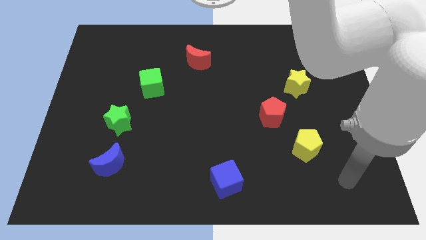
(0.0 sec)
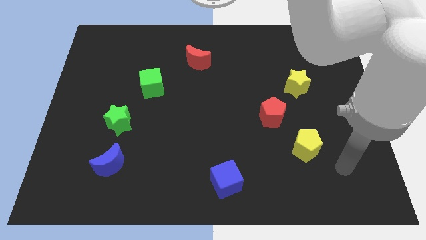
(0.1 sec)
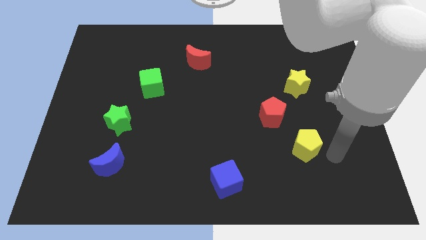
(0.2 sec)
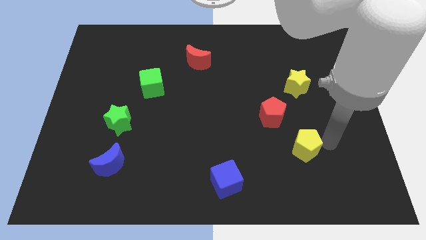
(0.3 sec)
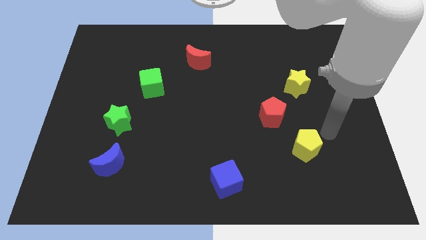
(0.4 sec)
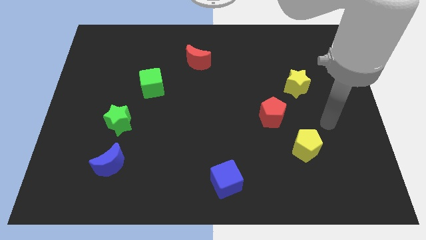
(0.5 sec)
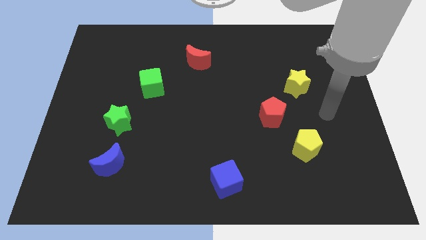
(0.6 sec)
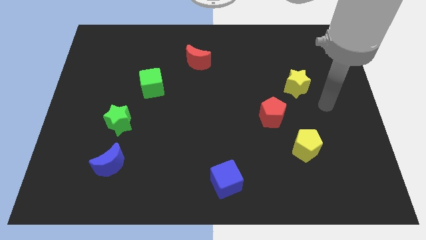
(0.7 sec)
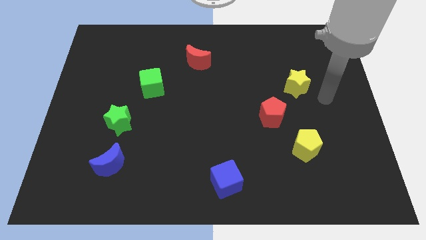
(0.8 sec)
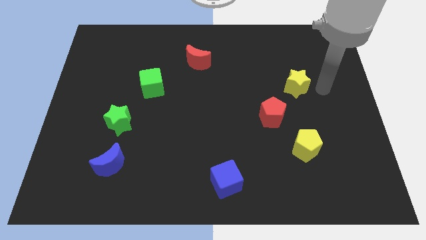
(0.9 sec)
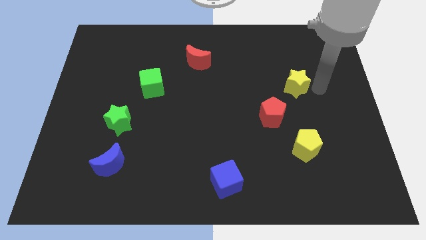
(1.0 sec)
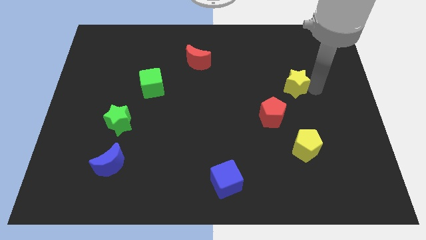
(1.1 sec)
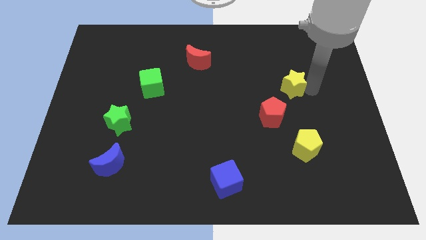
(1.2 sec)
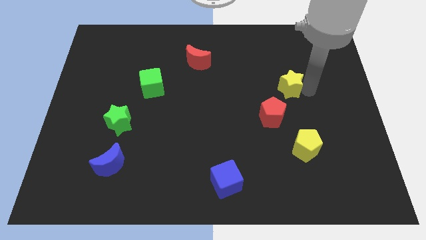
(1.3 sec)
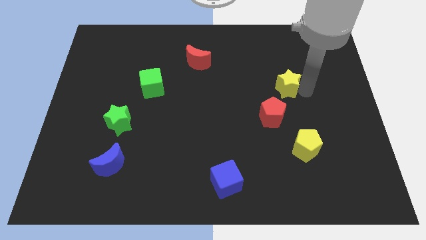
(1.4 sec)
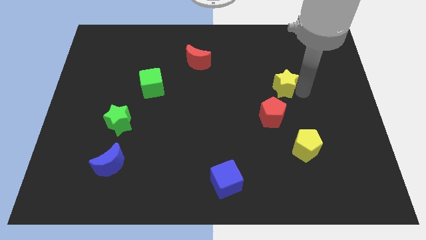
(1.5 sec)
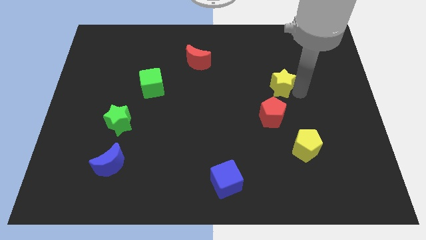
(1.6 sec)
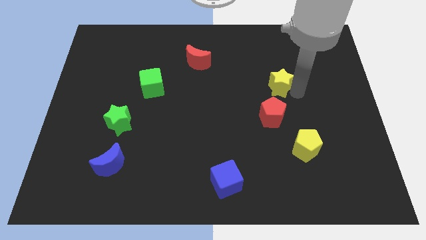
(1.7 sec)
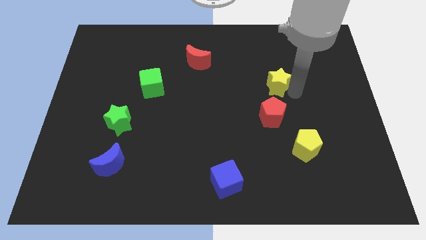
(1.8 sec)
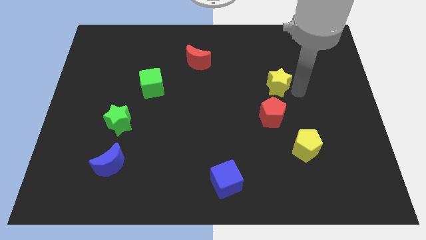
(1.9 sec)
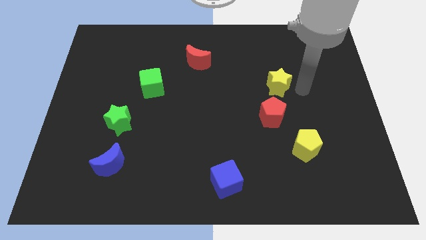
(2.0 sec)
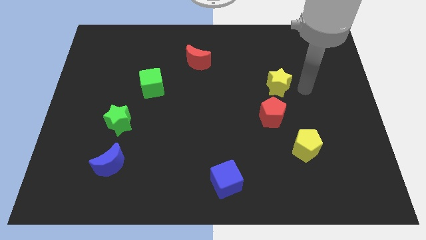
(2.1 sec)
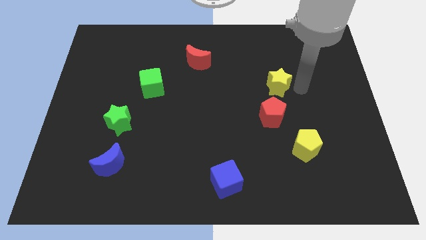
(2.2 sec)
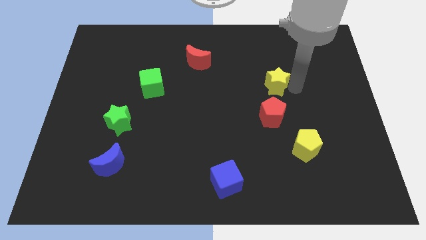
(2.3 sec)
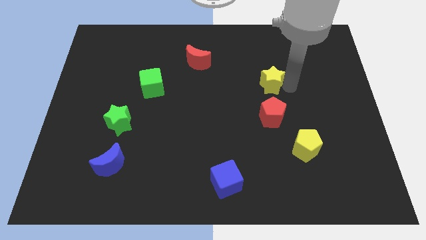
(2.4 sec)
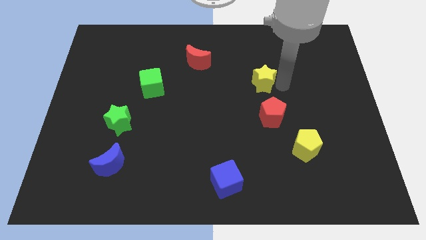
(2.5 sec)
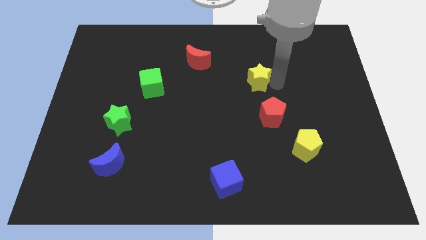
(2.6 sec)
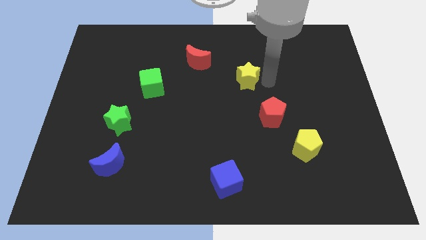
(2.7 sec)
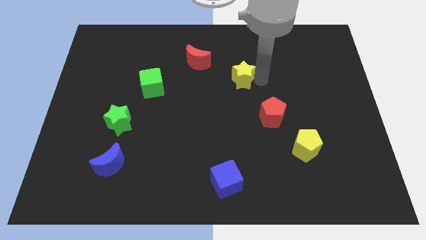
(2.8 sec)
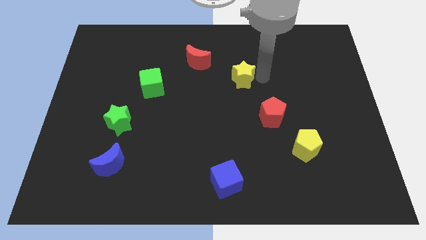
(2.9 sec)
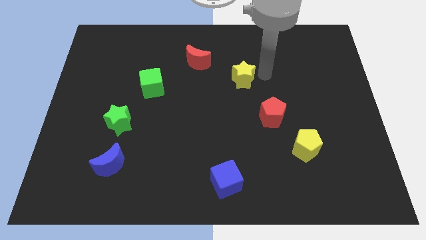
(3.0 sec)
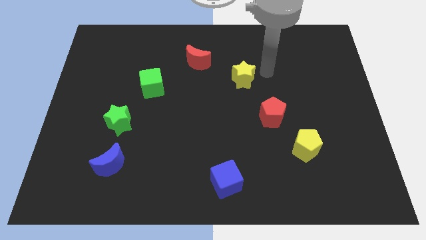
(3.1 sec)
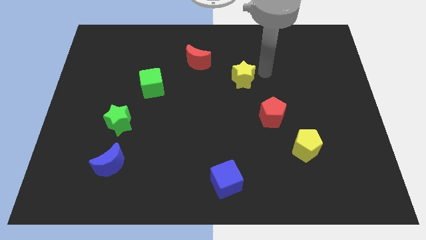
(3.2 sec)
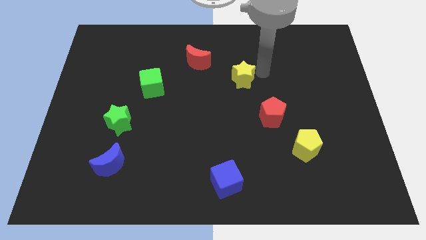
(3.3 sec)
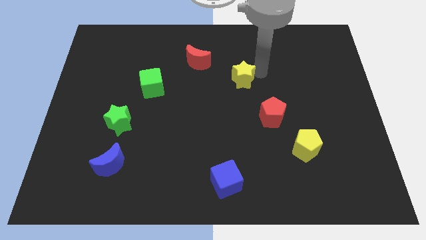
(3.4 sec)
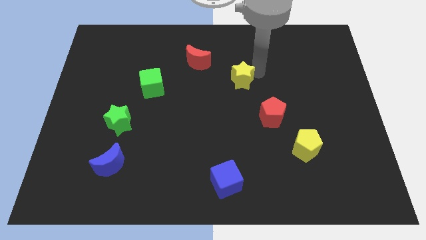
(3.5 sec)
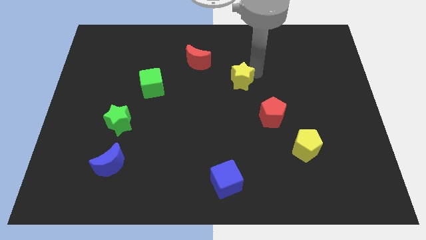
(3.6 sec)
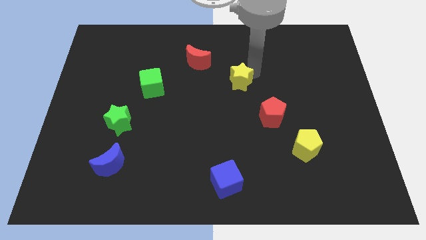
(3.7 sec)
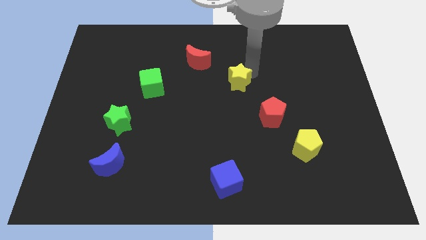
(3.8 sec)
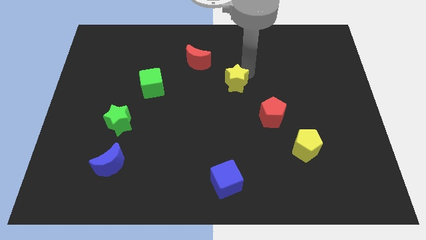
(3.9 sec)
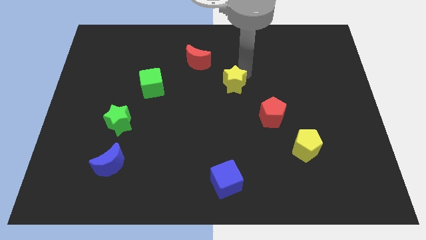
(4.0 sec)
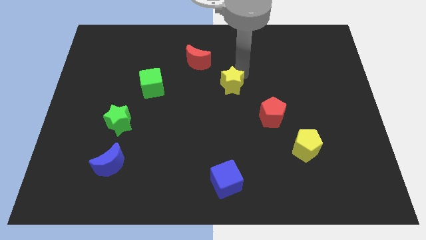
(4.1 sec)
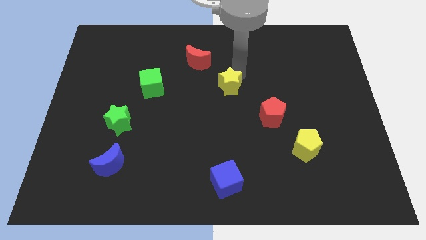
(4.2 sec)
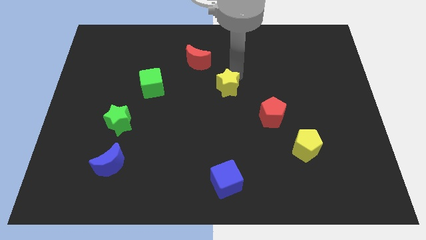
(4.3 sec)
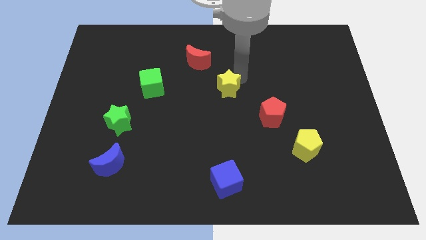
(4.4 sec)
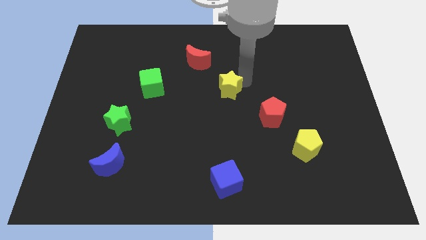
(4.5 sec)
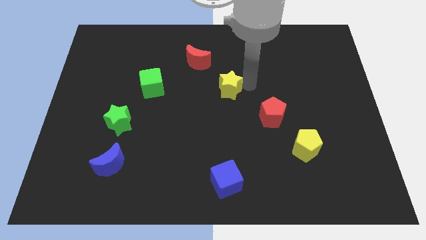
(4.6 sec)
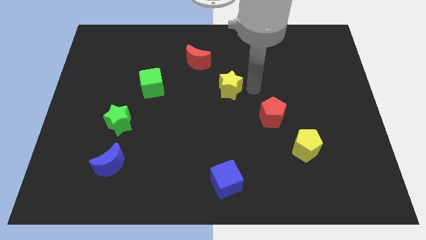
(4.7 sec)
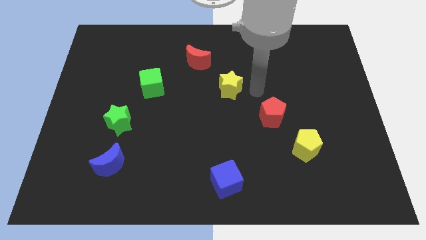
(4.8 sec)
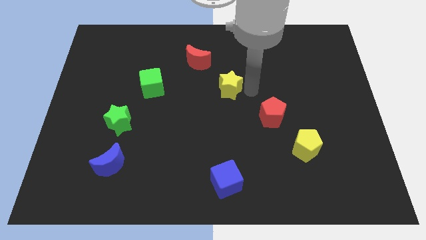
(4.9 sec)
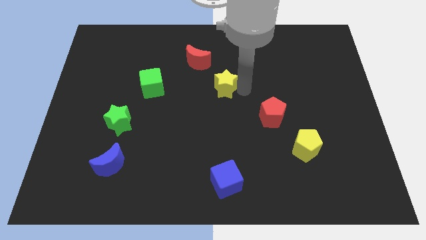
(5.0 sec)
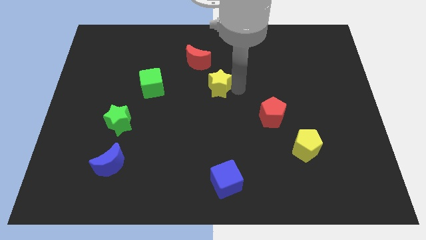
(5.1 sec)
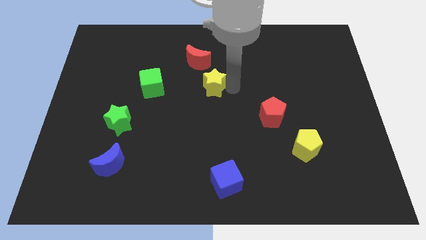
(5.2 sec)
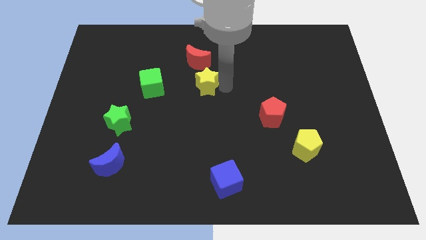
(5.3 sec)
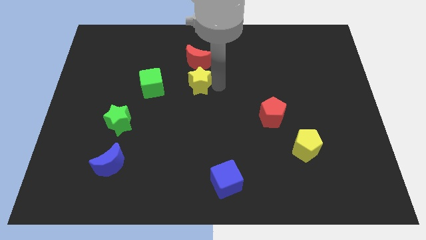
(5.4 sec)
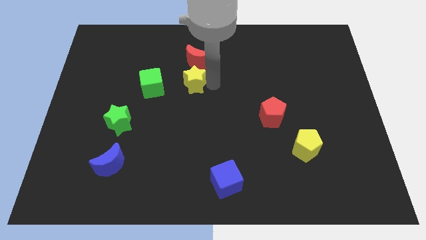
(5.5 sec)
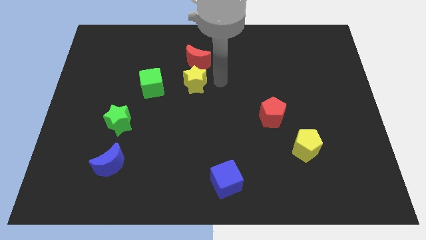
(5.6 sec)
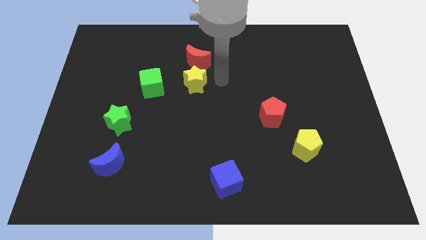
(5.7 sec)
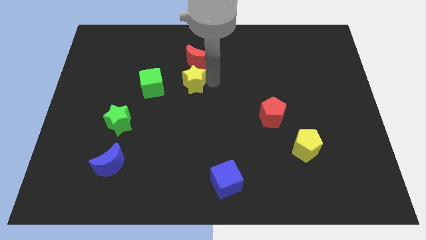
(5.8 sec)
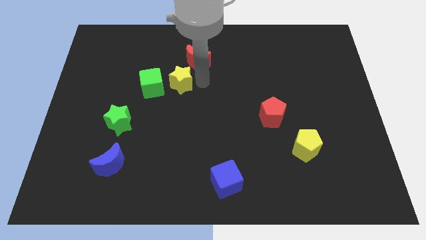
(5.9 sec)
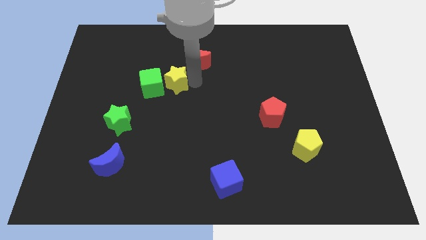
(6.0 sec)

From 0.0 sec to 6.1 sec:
push the yellow star next to the green cube

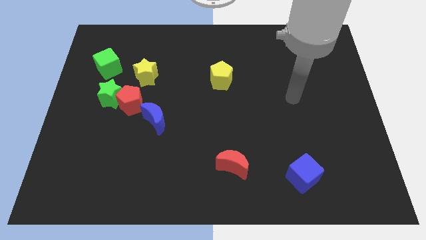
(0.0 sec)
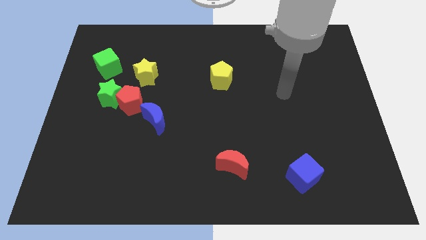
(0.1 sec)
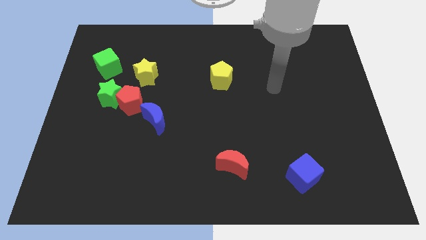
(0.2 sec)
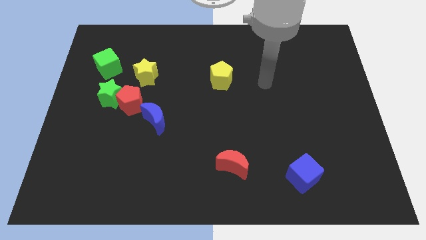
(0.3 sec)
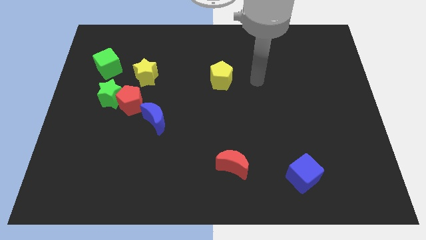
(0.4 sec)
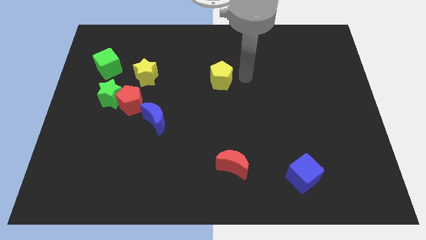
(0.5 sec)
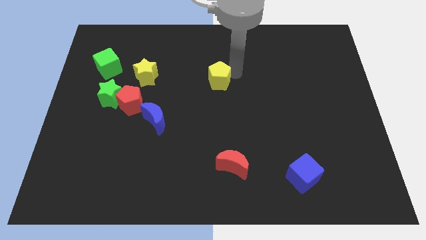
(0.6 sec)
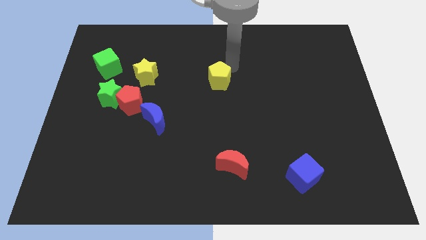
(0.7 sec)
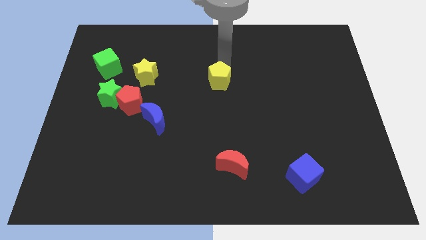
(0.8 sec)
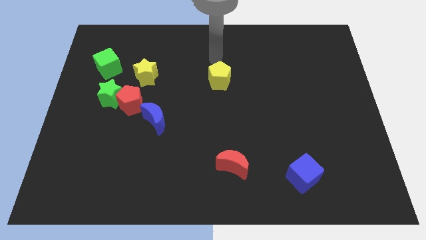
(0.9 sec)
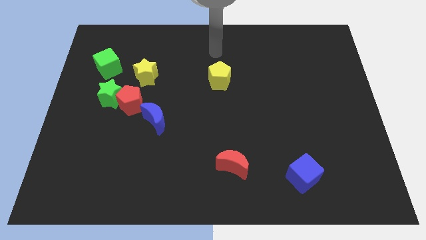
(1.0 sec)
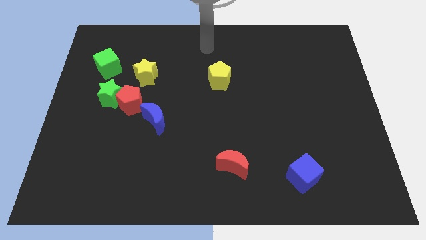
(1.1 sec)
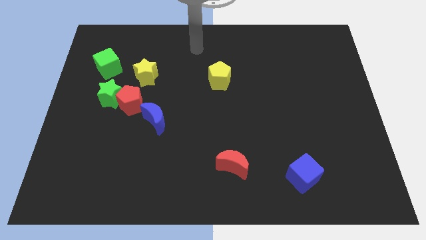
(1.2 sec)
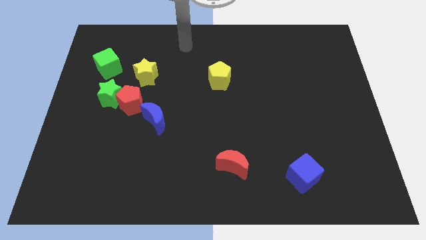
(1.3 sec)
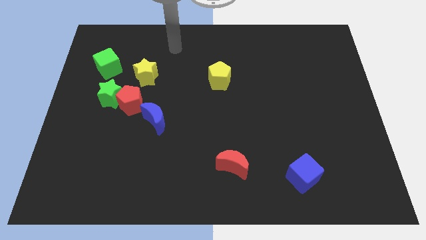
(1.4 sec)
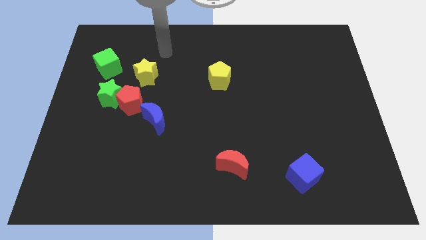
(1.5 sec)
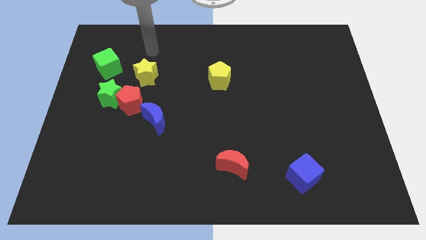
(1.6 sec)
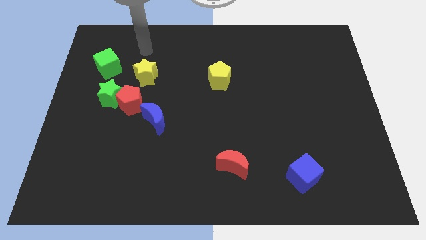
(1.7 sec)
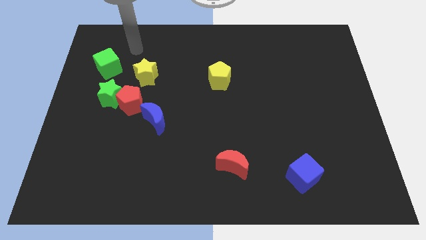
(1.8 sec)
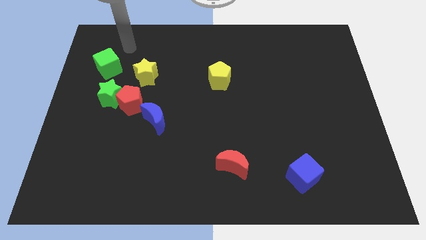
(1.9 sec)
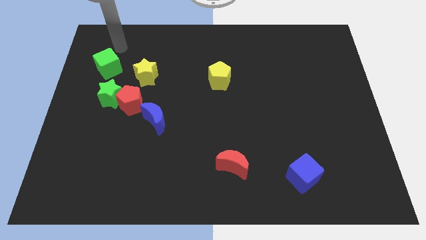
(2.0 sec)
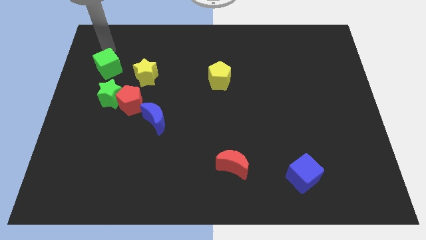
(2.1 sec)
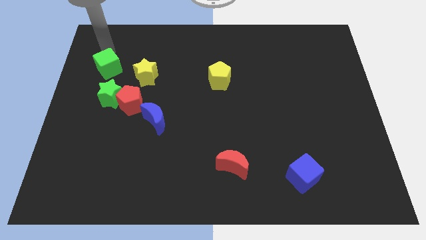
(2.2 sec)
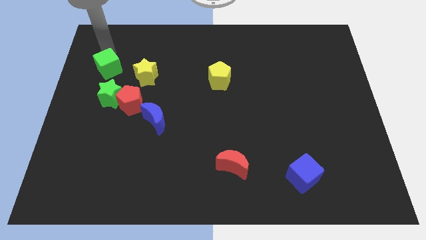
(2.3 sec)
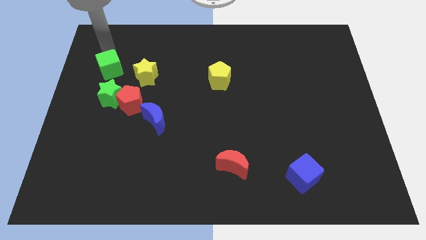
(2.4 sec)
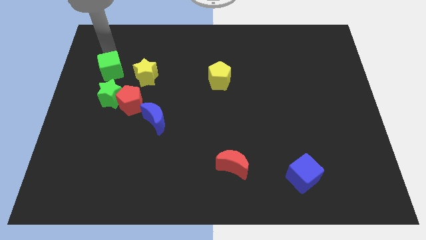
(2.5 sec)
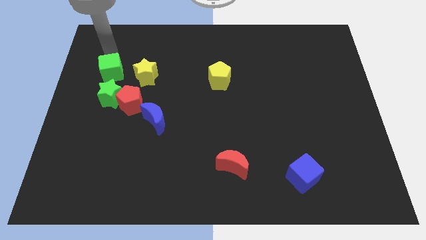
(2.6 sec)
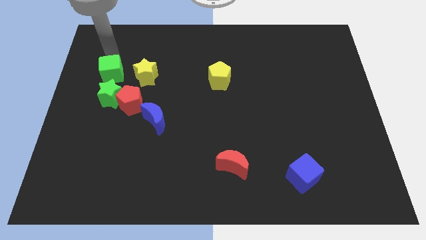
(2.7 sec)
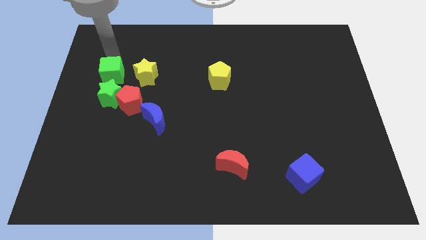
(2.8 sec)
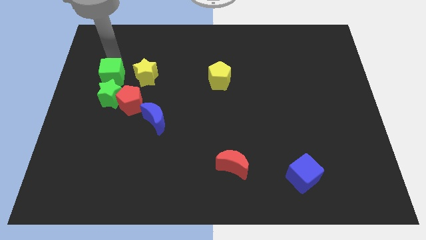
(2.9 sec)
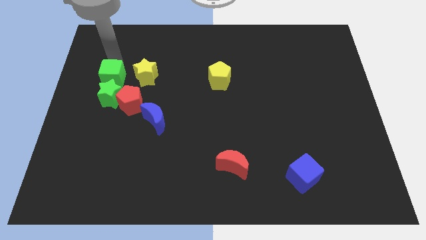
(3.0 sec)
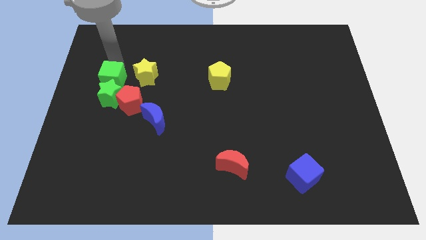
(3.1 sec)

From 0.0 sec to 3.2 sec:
slide the green cube to the green star
